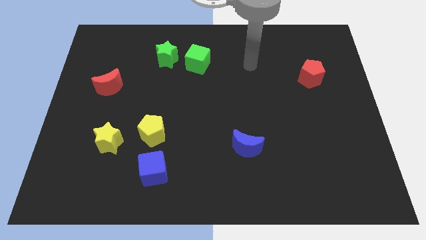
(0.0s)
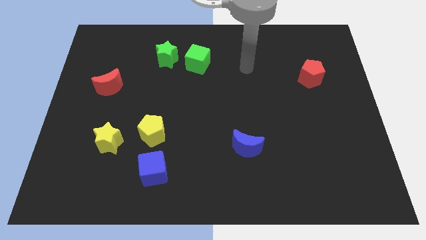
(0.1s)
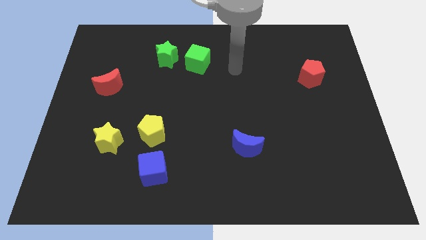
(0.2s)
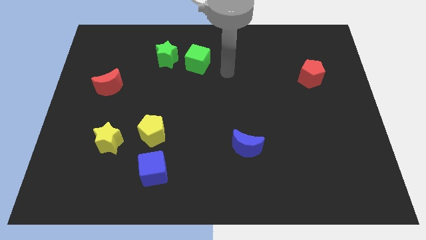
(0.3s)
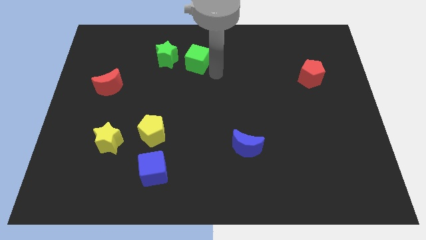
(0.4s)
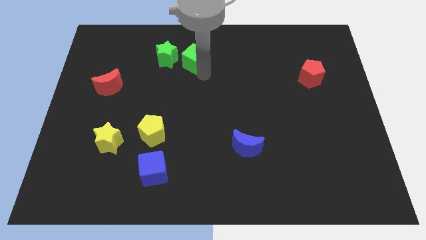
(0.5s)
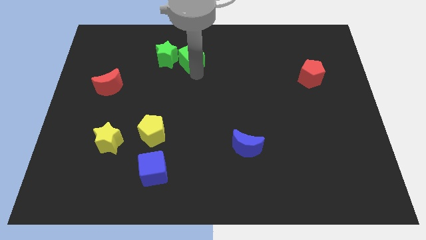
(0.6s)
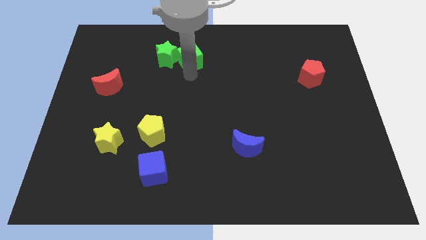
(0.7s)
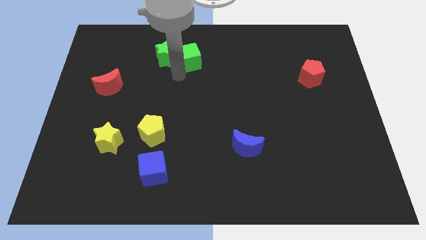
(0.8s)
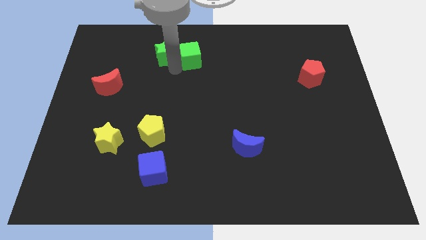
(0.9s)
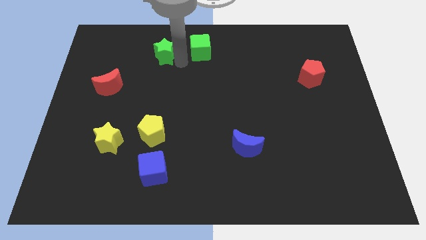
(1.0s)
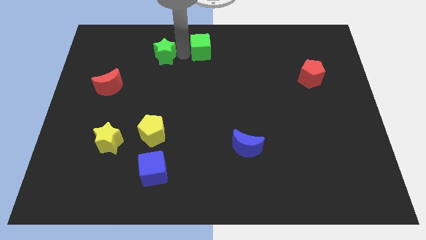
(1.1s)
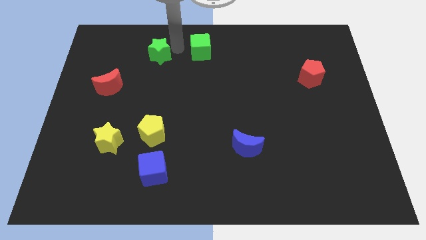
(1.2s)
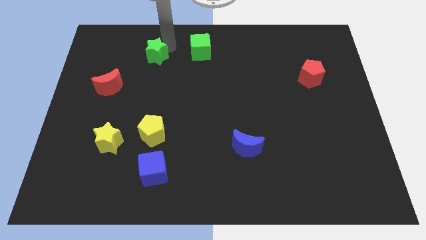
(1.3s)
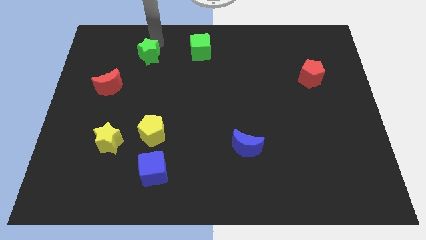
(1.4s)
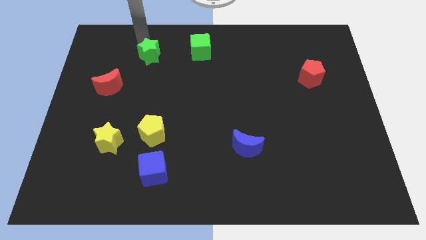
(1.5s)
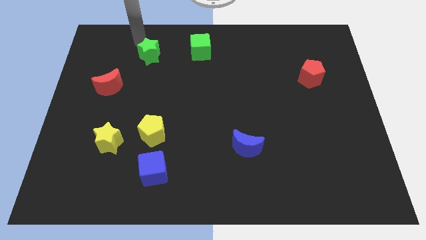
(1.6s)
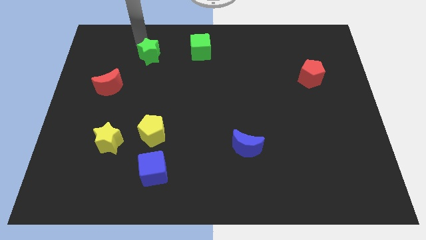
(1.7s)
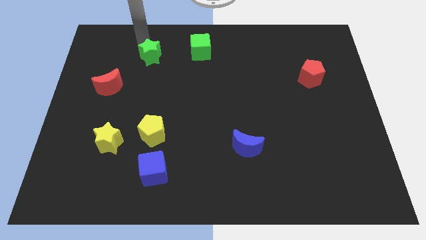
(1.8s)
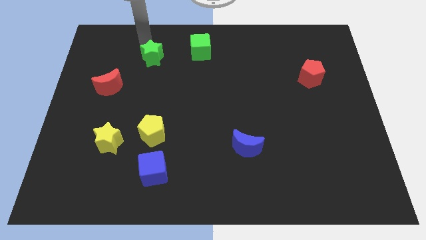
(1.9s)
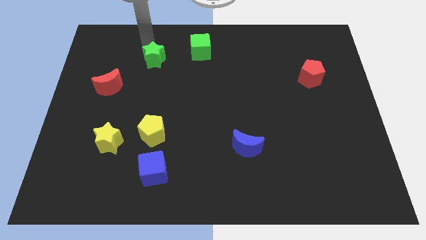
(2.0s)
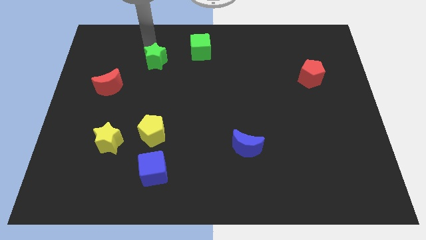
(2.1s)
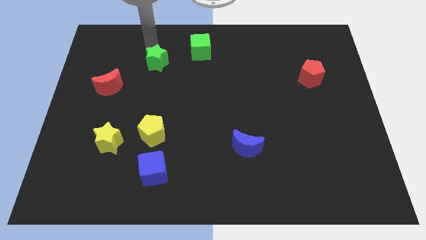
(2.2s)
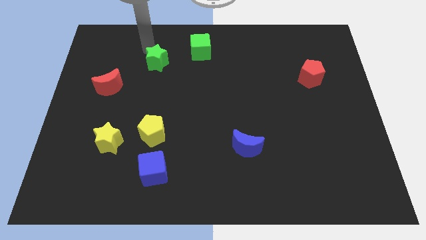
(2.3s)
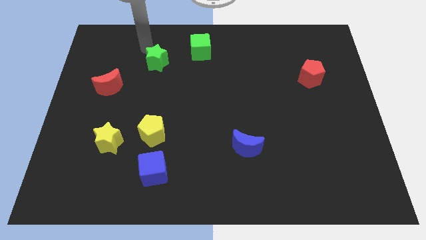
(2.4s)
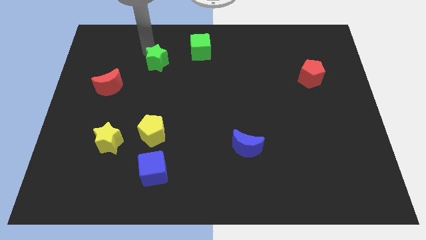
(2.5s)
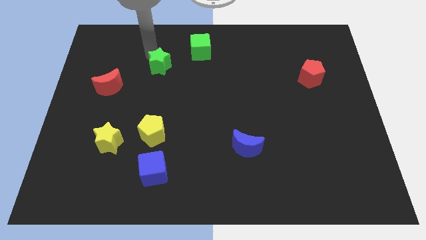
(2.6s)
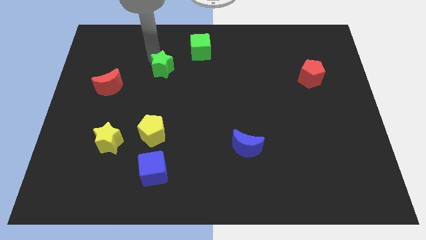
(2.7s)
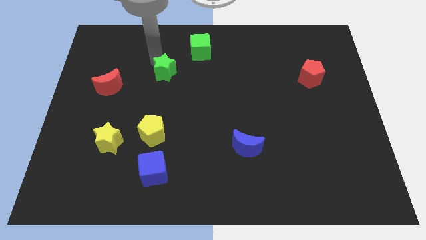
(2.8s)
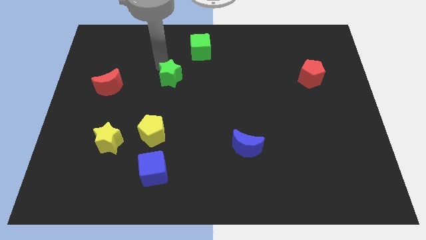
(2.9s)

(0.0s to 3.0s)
slightly slide the green star downwards

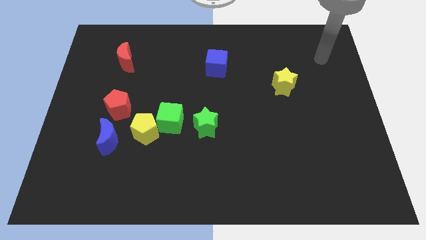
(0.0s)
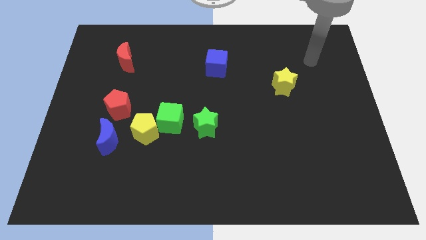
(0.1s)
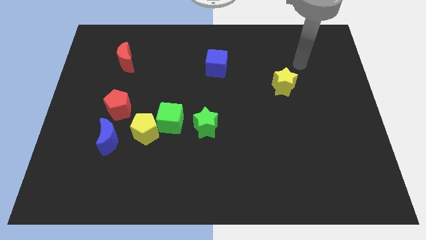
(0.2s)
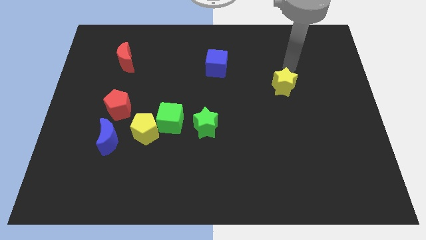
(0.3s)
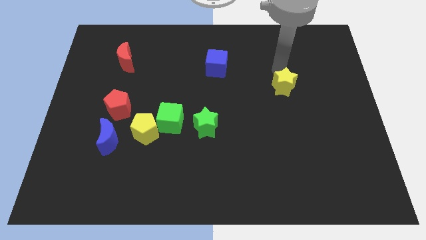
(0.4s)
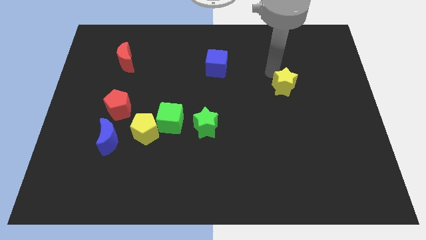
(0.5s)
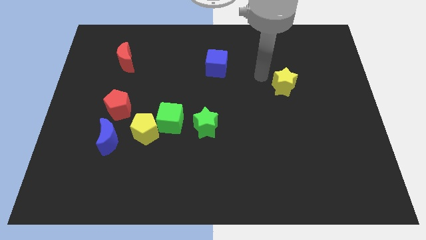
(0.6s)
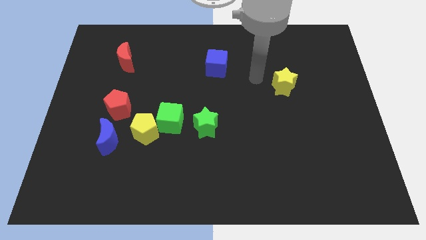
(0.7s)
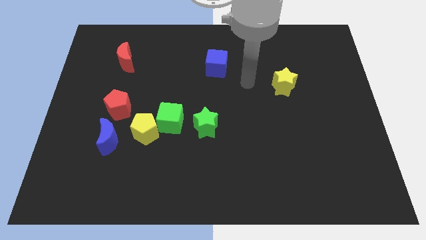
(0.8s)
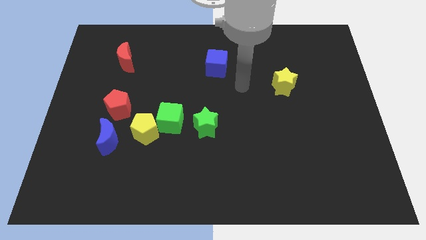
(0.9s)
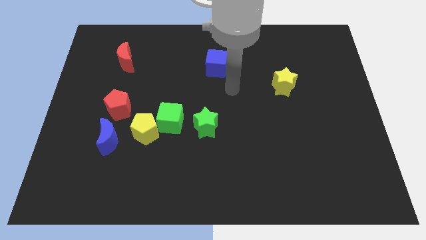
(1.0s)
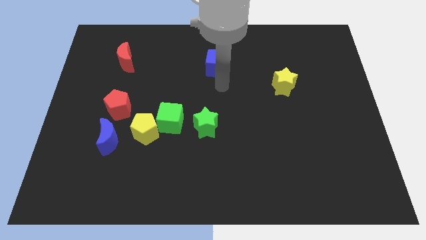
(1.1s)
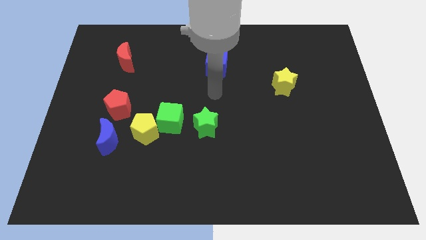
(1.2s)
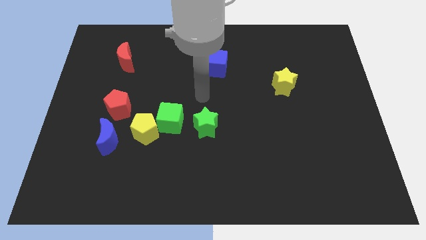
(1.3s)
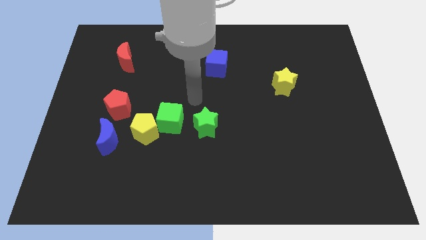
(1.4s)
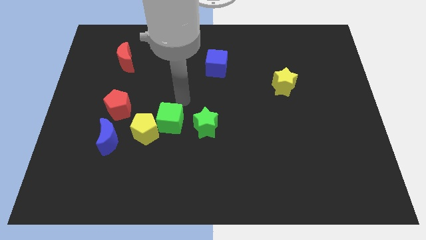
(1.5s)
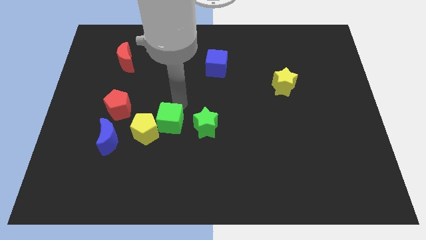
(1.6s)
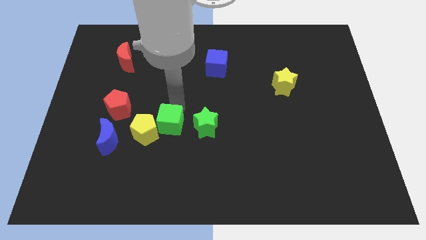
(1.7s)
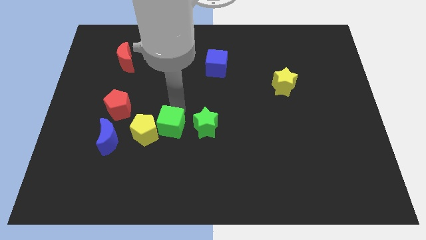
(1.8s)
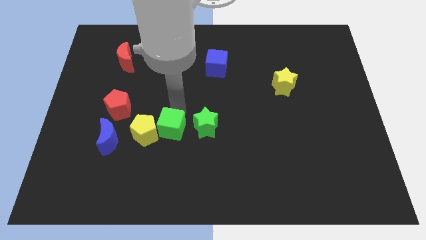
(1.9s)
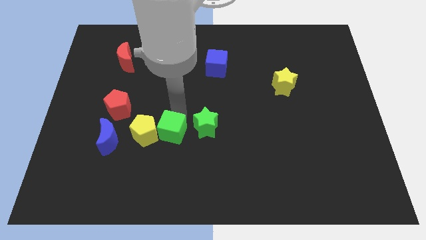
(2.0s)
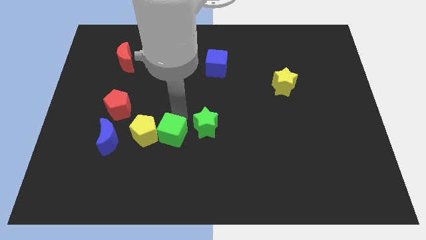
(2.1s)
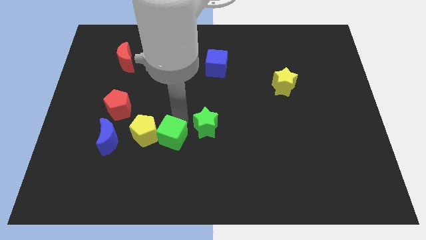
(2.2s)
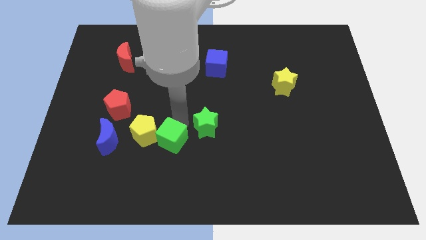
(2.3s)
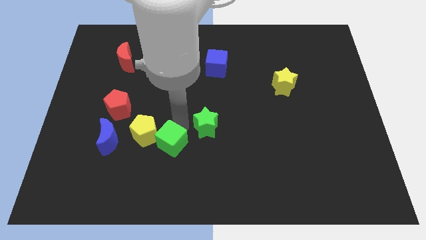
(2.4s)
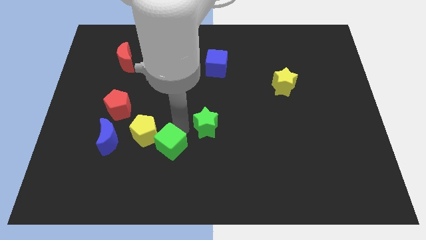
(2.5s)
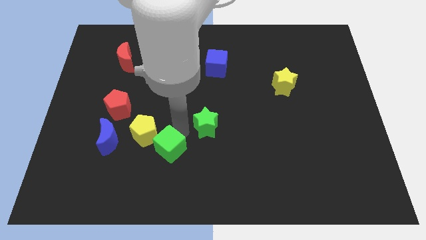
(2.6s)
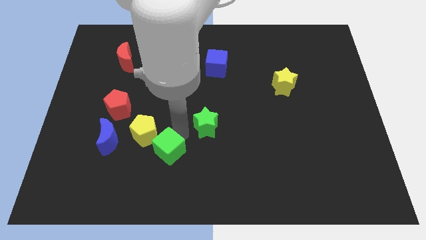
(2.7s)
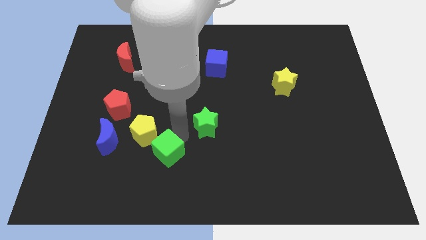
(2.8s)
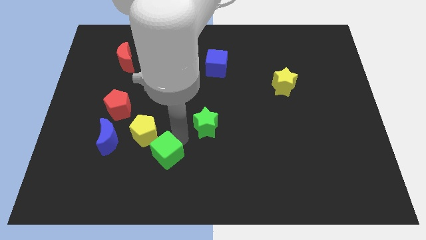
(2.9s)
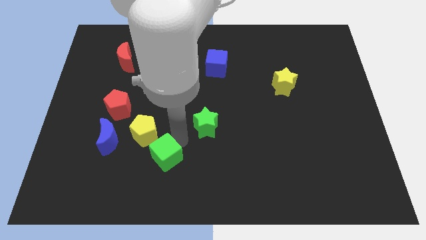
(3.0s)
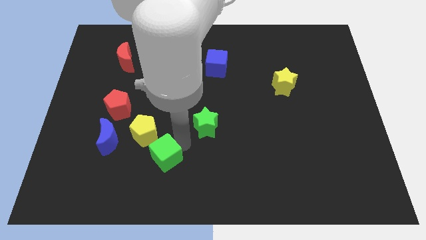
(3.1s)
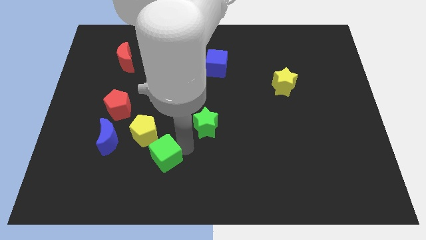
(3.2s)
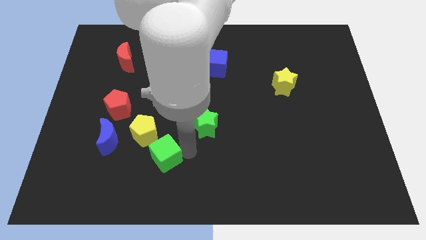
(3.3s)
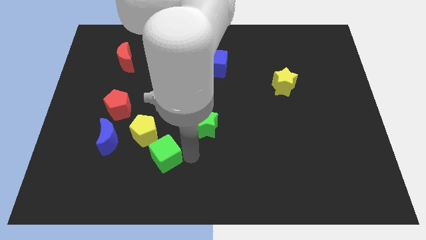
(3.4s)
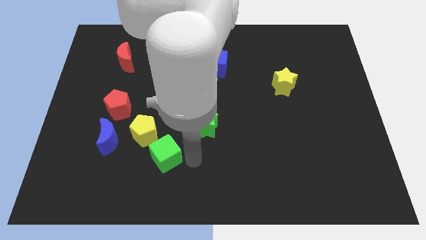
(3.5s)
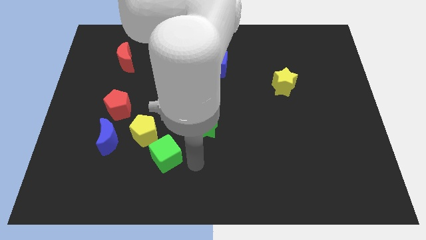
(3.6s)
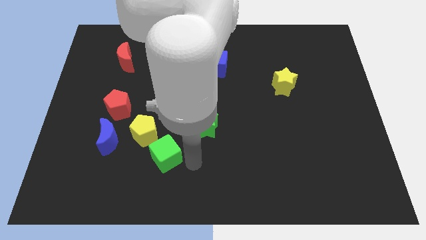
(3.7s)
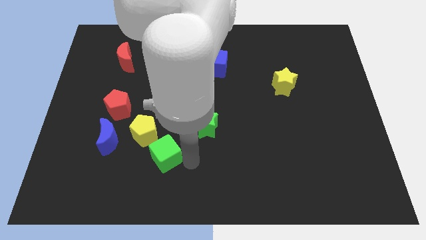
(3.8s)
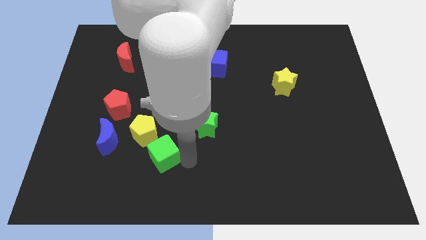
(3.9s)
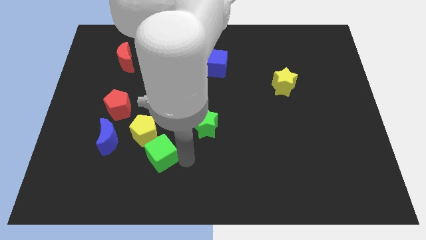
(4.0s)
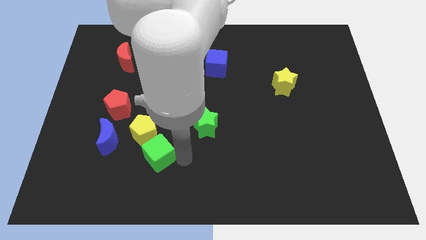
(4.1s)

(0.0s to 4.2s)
slightly move the green cube down and to the left

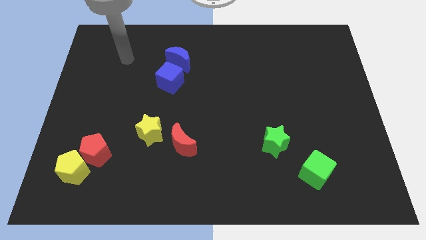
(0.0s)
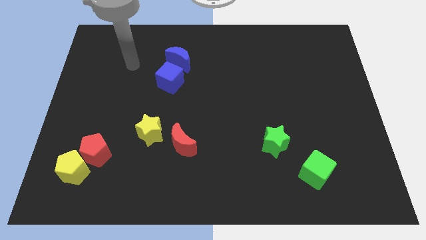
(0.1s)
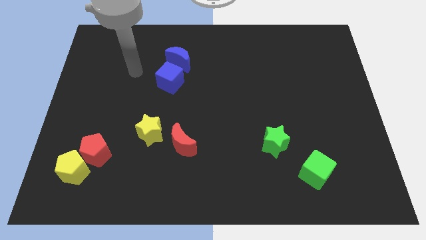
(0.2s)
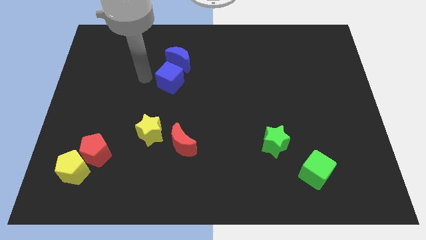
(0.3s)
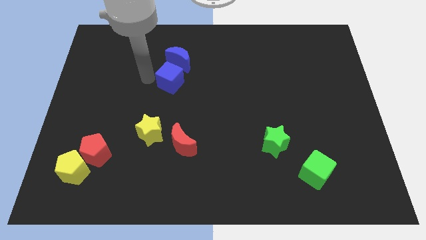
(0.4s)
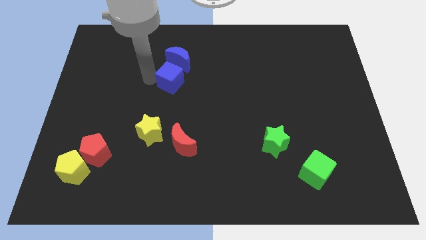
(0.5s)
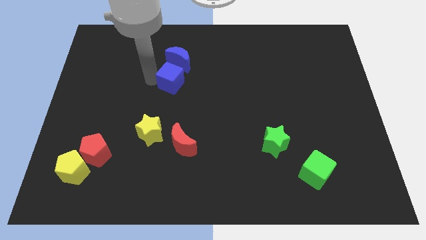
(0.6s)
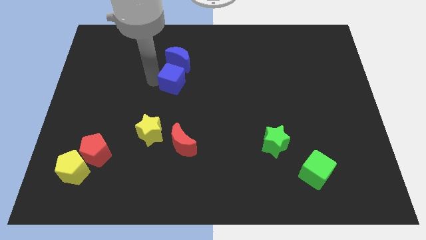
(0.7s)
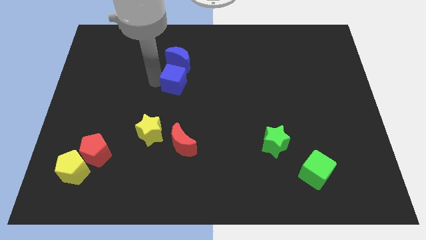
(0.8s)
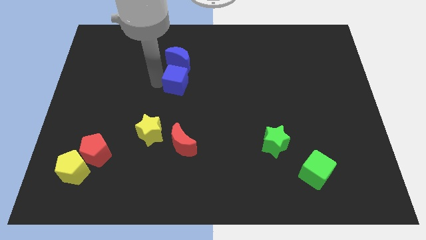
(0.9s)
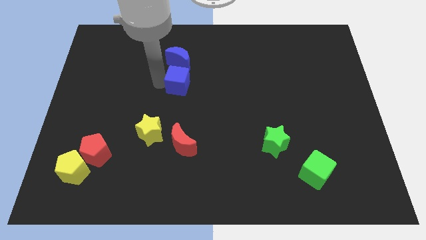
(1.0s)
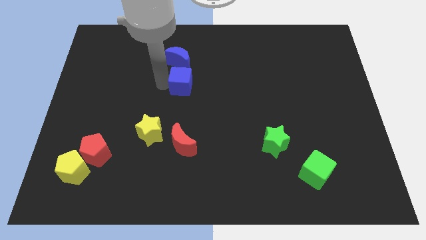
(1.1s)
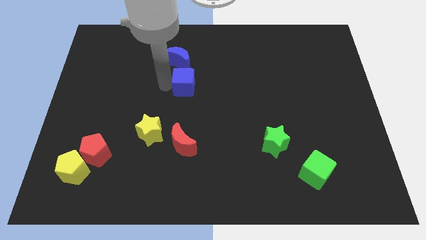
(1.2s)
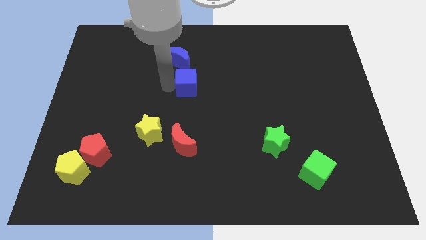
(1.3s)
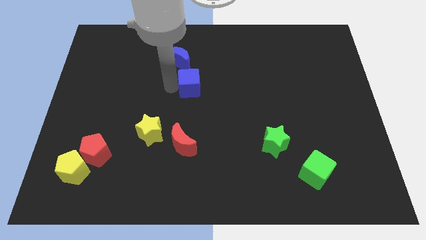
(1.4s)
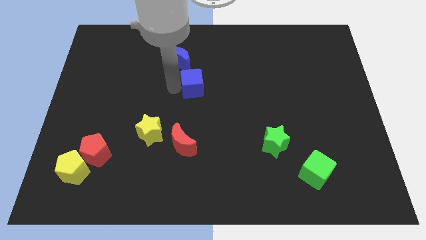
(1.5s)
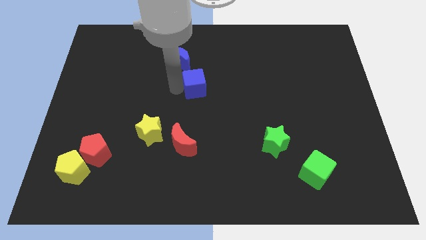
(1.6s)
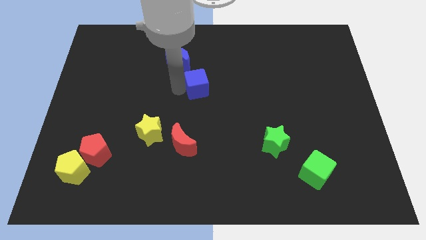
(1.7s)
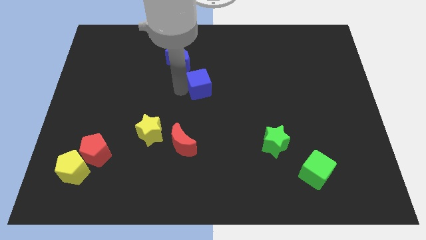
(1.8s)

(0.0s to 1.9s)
slide the blue cube right a bit
